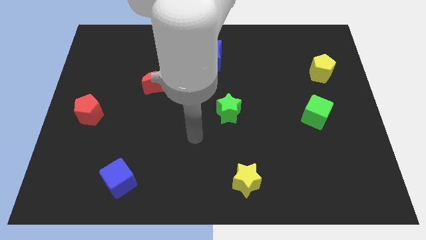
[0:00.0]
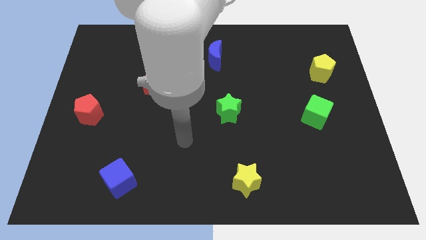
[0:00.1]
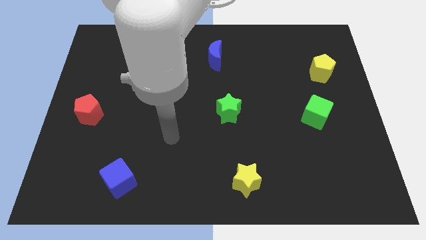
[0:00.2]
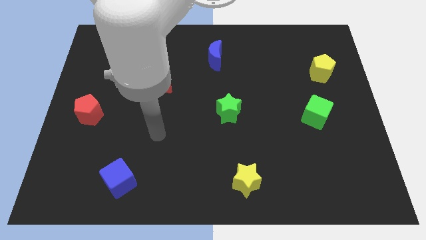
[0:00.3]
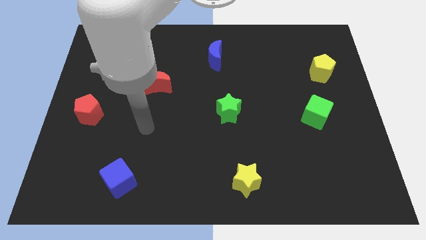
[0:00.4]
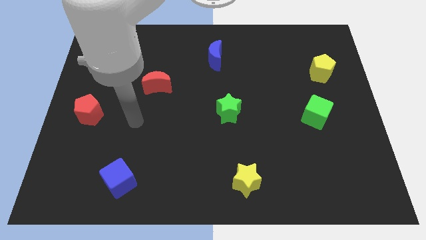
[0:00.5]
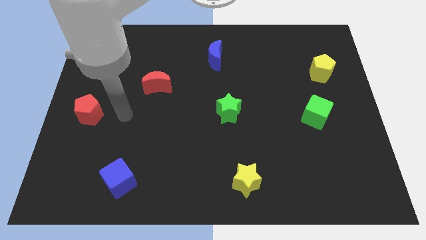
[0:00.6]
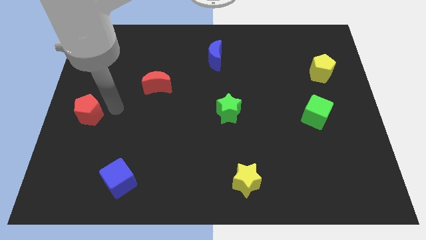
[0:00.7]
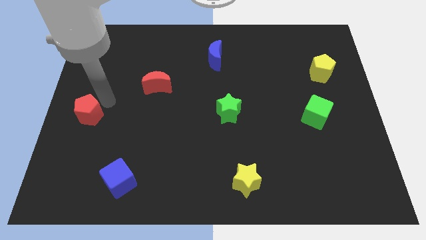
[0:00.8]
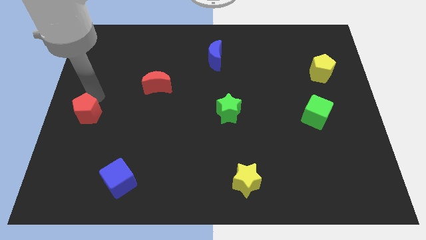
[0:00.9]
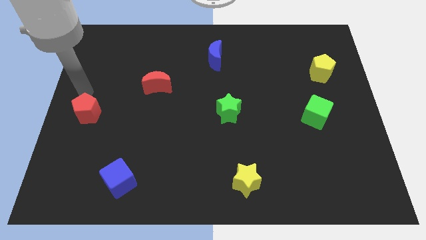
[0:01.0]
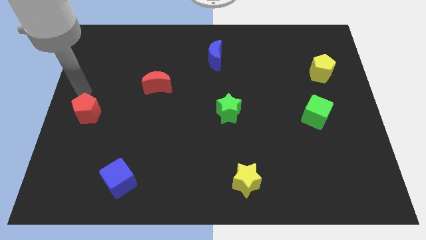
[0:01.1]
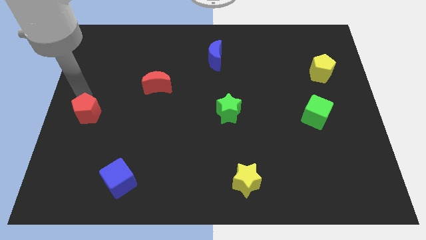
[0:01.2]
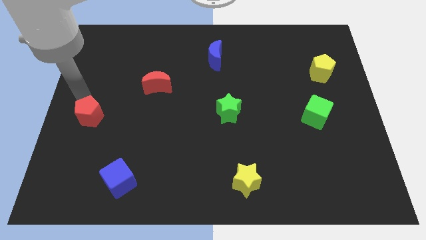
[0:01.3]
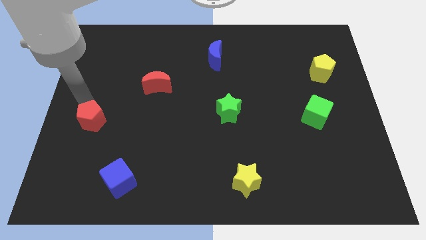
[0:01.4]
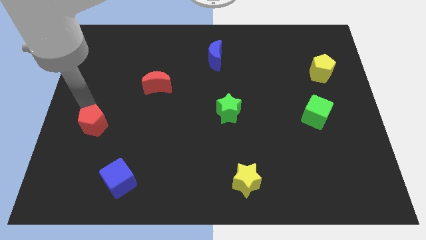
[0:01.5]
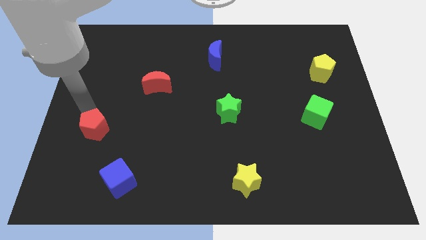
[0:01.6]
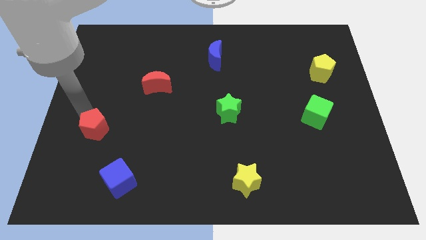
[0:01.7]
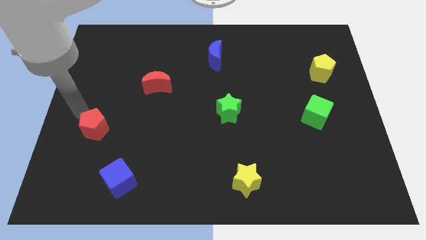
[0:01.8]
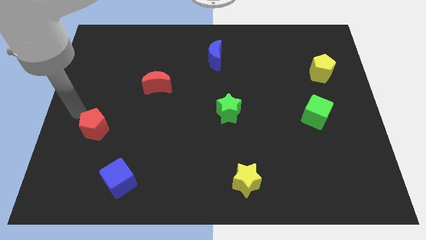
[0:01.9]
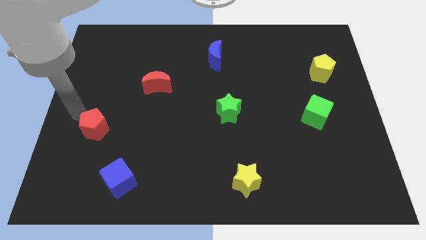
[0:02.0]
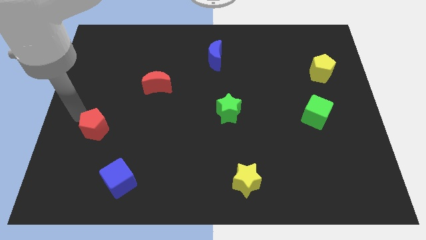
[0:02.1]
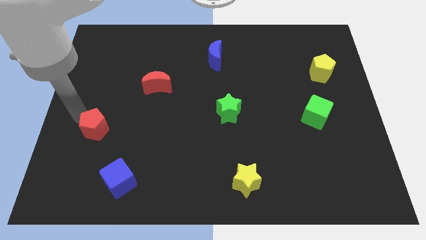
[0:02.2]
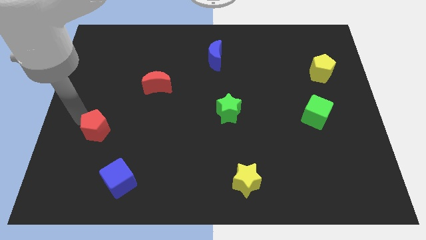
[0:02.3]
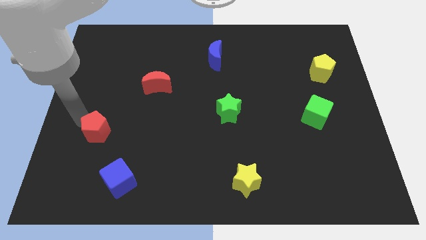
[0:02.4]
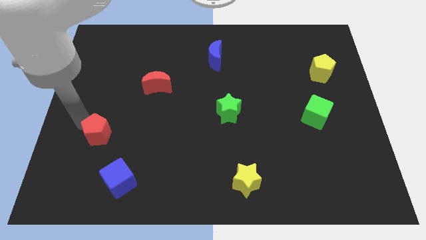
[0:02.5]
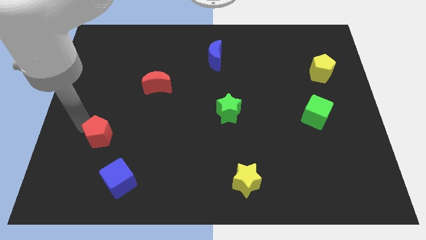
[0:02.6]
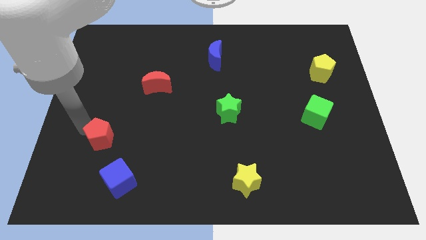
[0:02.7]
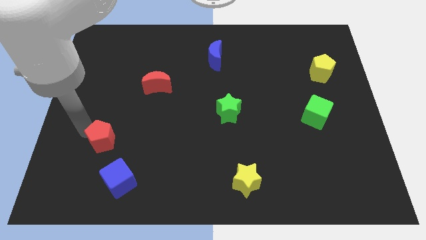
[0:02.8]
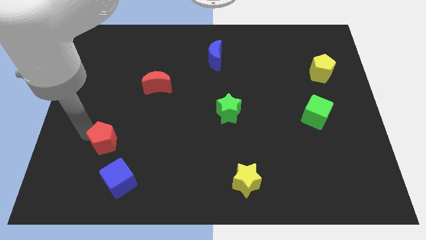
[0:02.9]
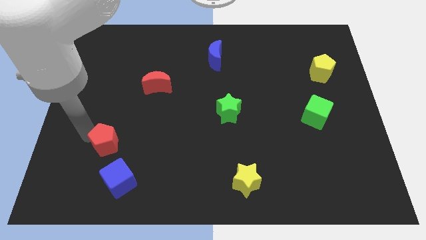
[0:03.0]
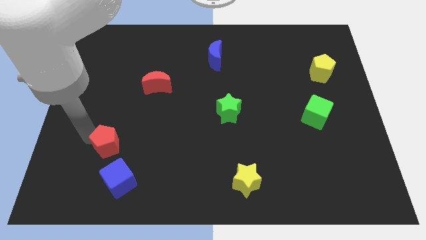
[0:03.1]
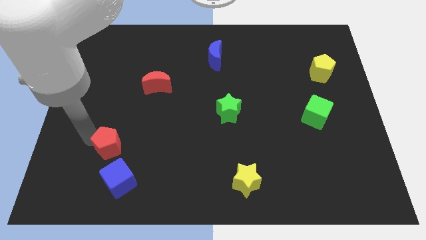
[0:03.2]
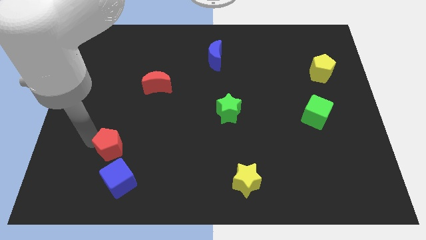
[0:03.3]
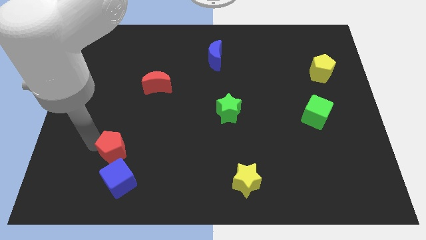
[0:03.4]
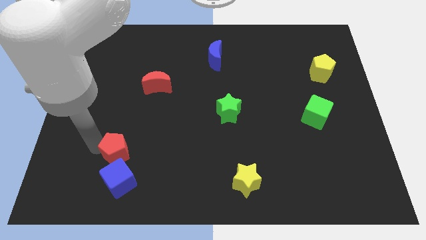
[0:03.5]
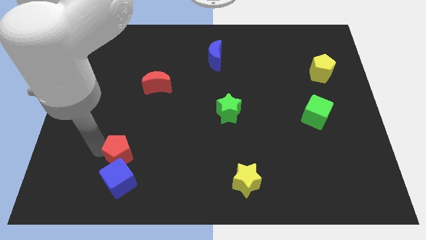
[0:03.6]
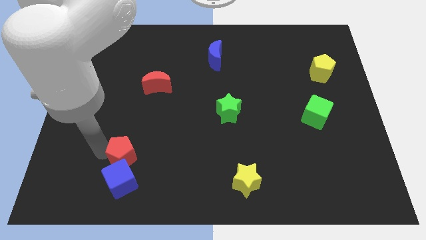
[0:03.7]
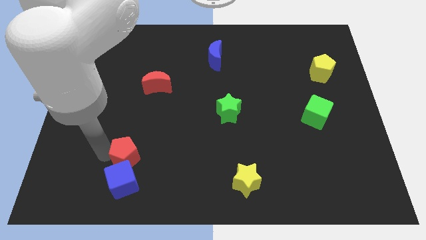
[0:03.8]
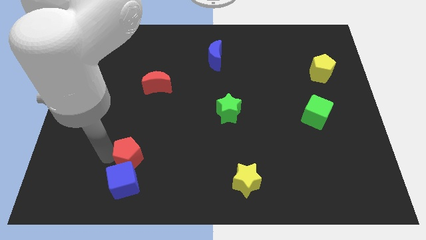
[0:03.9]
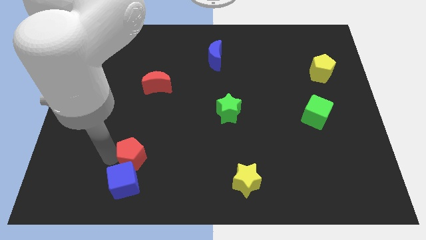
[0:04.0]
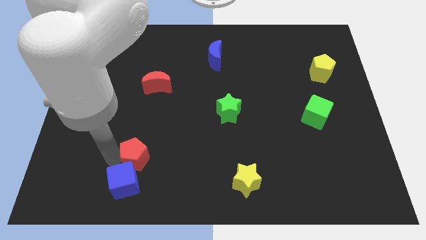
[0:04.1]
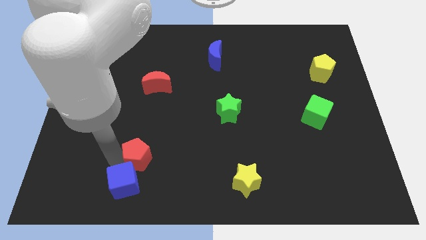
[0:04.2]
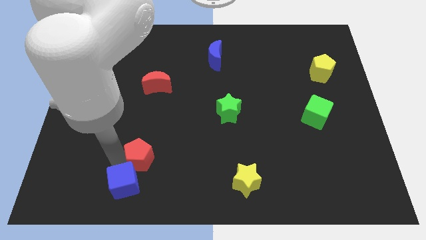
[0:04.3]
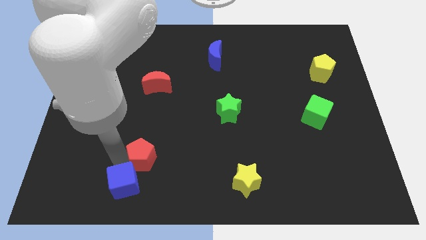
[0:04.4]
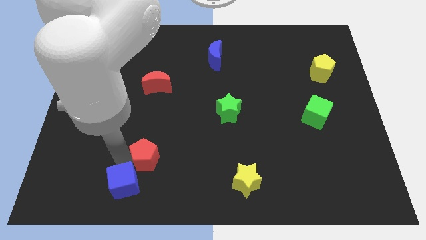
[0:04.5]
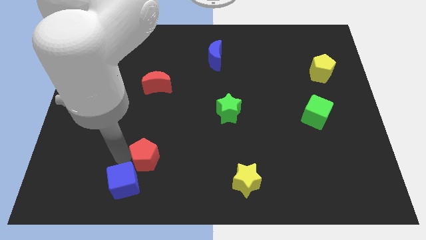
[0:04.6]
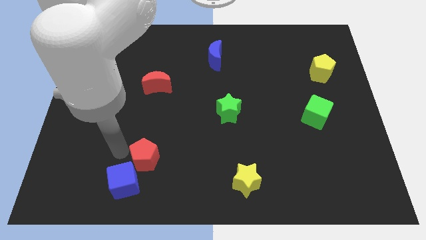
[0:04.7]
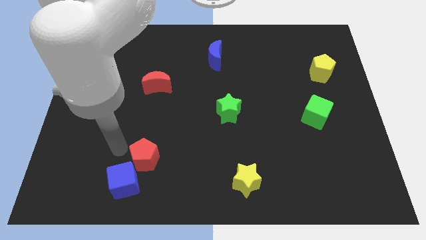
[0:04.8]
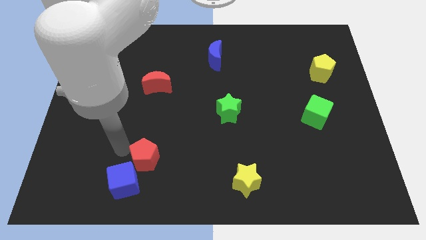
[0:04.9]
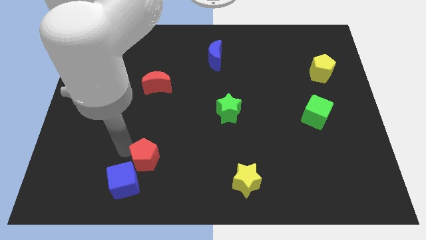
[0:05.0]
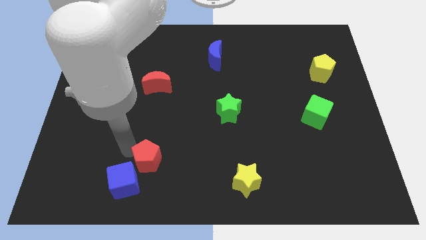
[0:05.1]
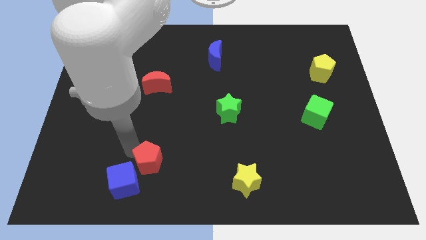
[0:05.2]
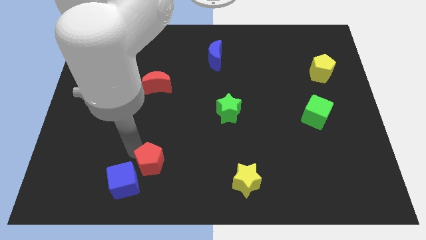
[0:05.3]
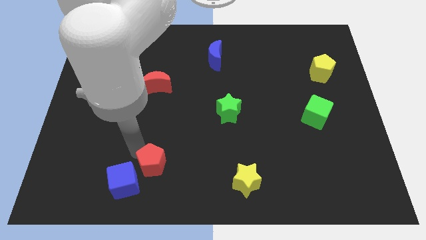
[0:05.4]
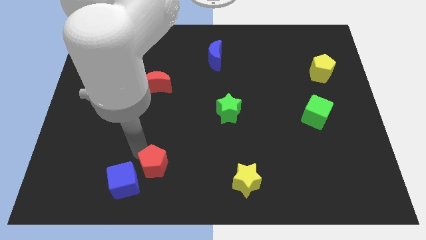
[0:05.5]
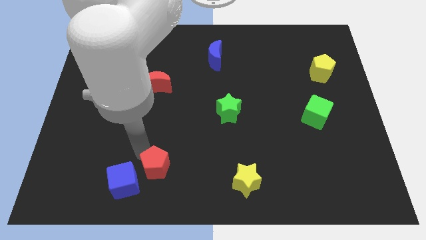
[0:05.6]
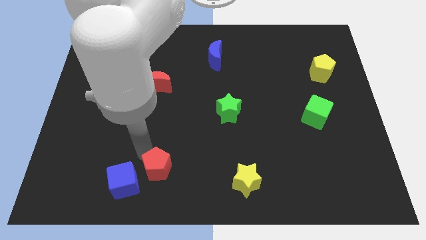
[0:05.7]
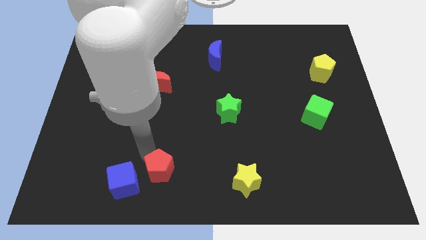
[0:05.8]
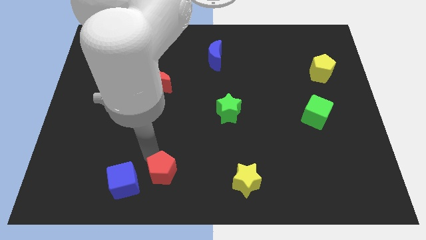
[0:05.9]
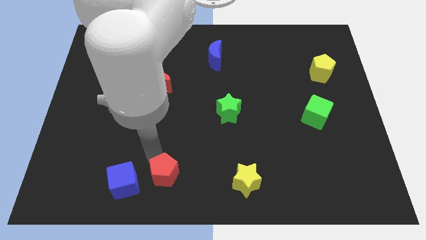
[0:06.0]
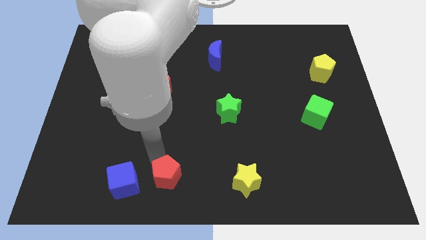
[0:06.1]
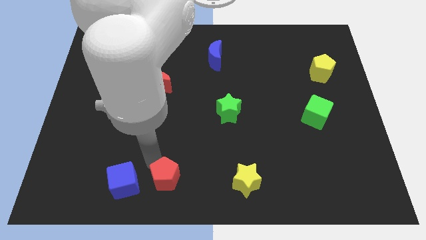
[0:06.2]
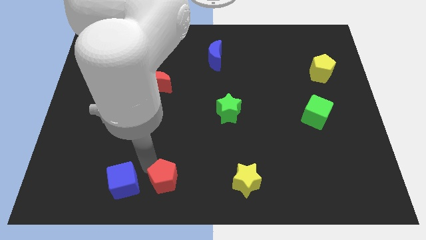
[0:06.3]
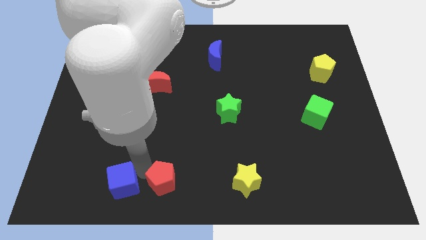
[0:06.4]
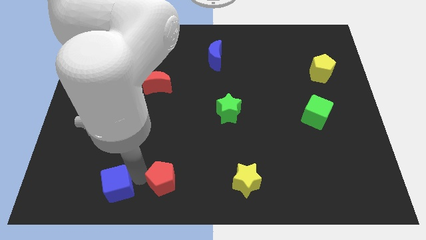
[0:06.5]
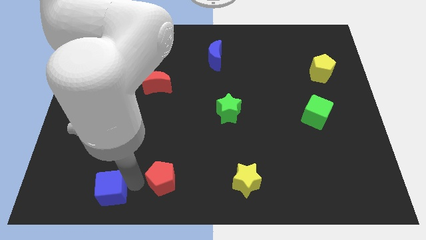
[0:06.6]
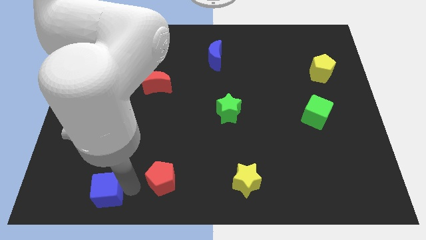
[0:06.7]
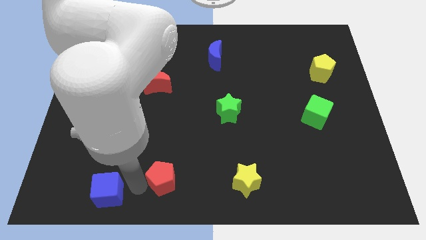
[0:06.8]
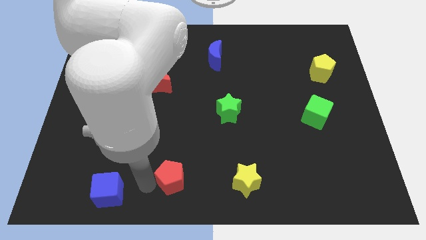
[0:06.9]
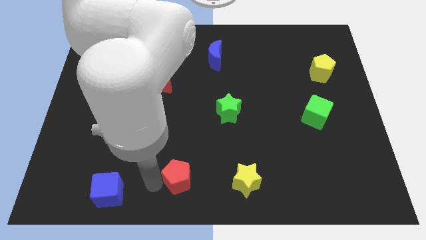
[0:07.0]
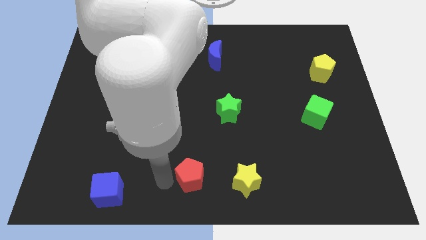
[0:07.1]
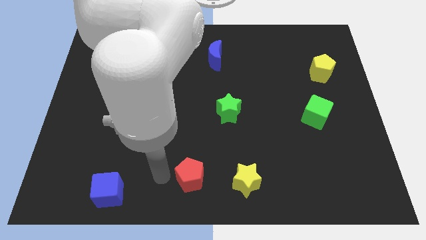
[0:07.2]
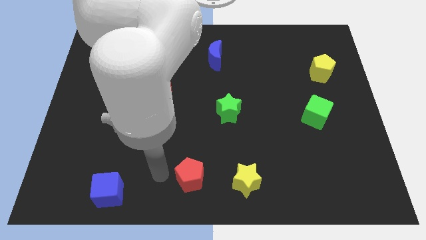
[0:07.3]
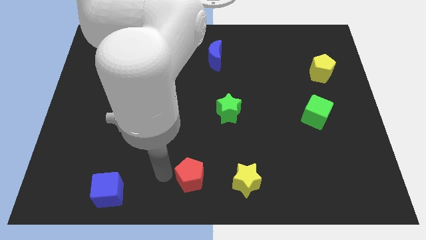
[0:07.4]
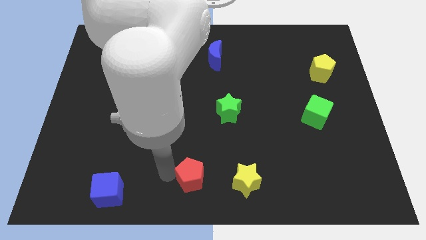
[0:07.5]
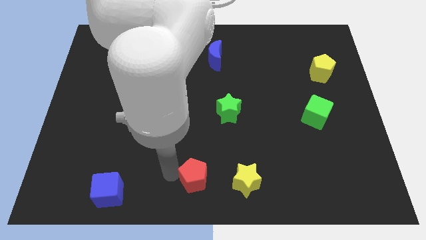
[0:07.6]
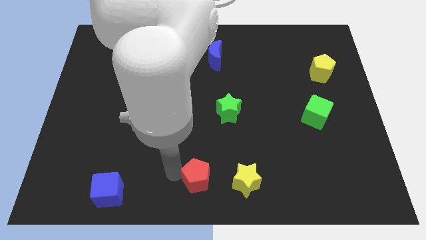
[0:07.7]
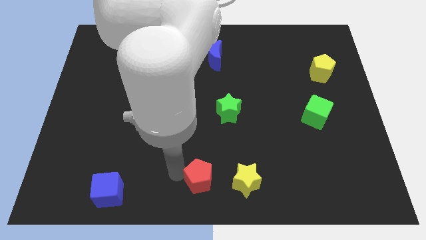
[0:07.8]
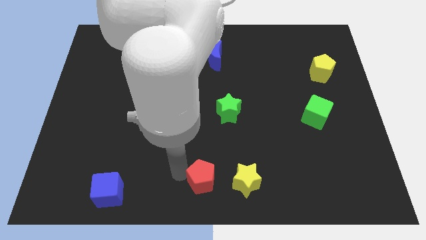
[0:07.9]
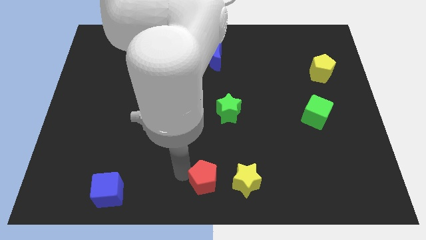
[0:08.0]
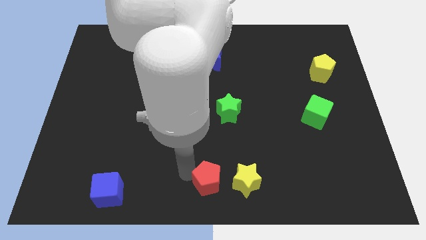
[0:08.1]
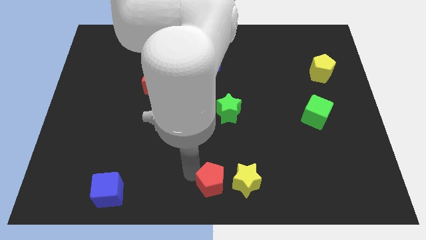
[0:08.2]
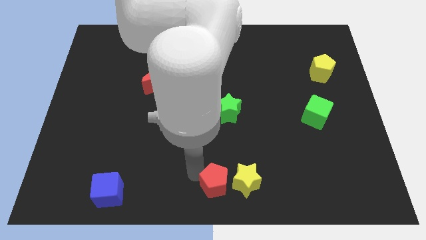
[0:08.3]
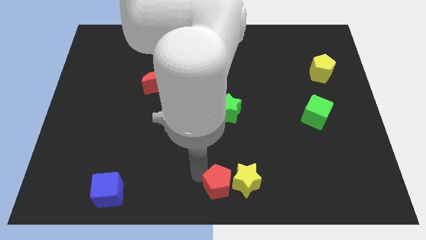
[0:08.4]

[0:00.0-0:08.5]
slide the red pentagon next to the yellow star
